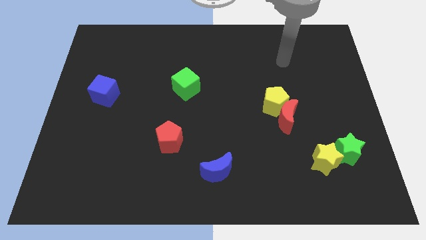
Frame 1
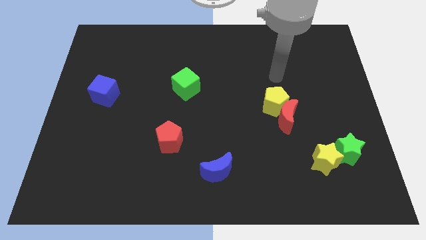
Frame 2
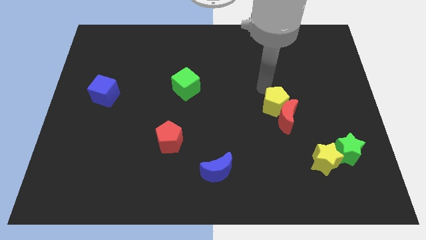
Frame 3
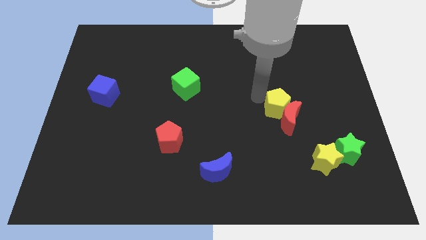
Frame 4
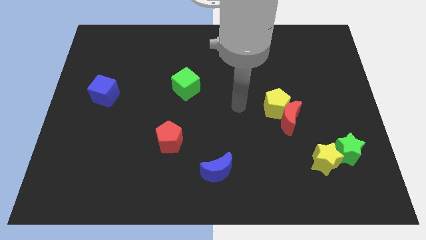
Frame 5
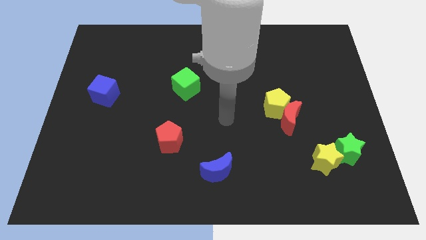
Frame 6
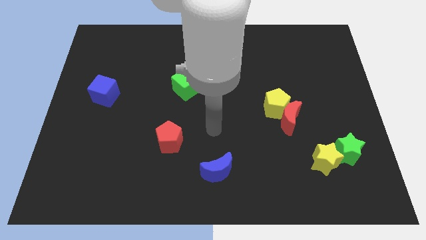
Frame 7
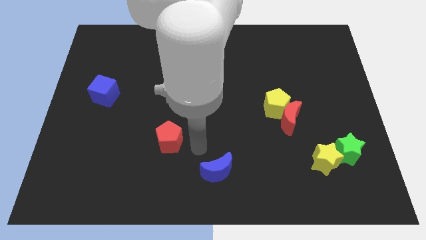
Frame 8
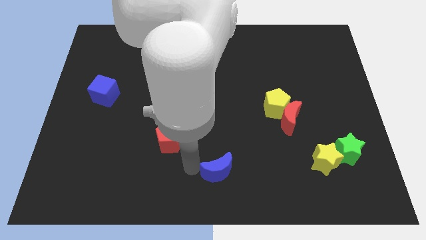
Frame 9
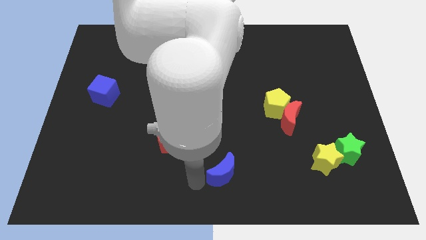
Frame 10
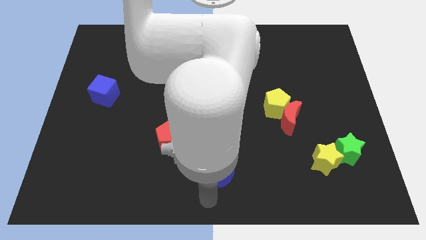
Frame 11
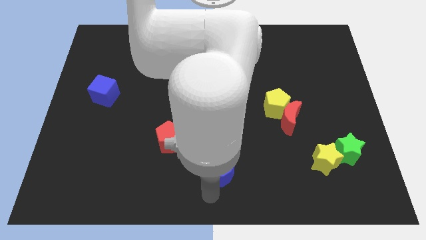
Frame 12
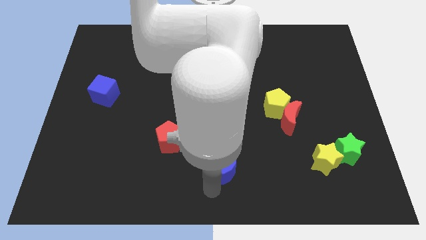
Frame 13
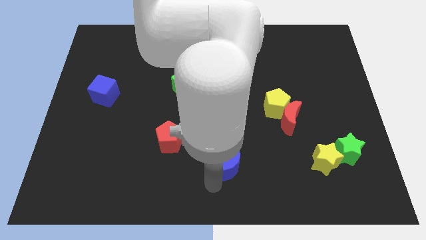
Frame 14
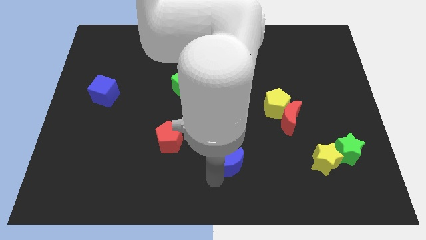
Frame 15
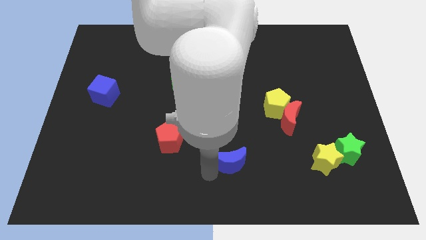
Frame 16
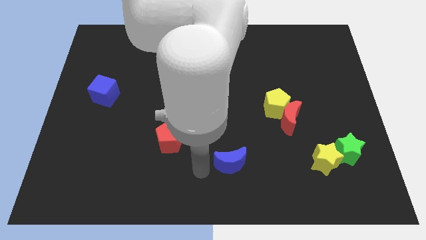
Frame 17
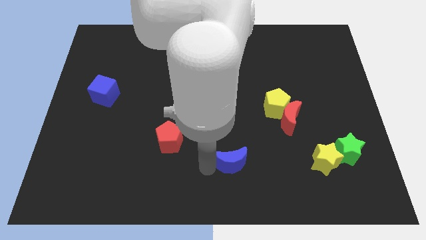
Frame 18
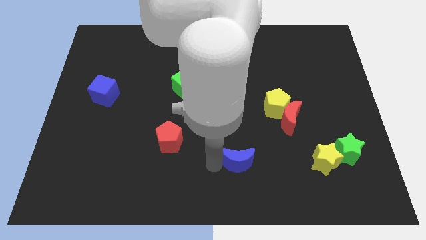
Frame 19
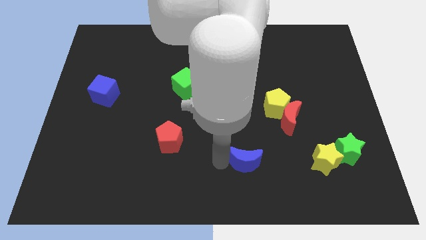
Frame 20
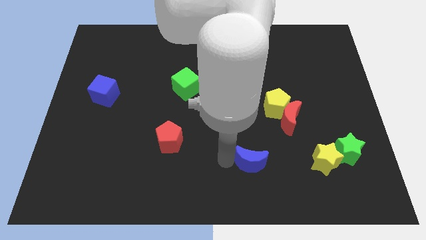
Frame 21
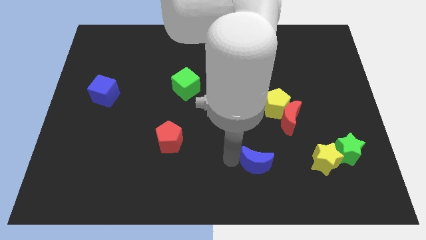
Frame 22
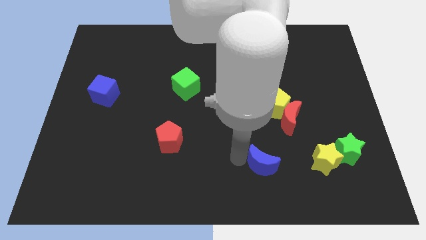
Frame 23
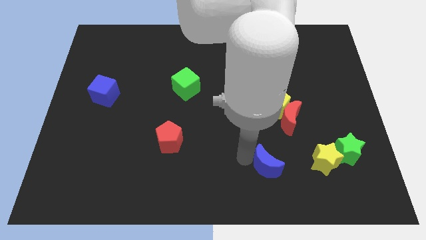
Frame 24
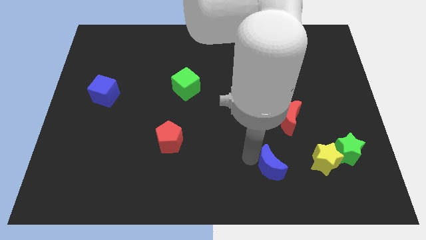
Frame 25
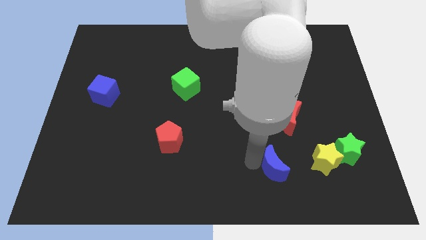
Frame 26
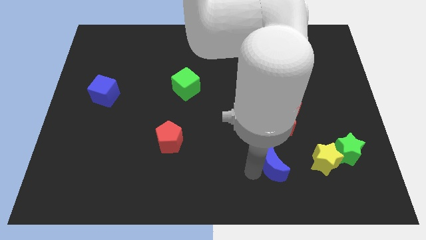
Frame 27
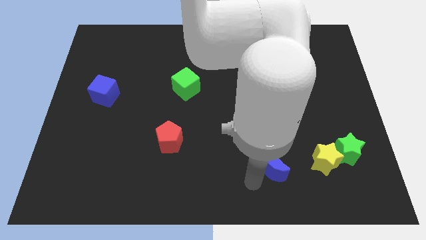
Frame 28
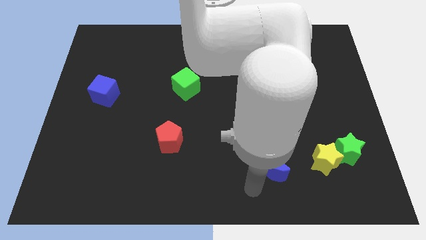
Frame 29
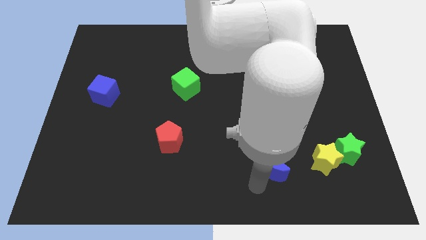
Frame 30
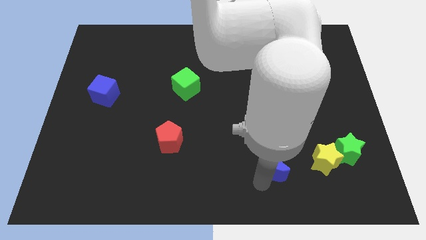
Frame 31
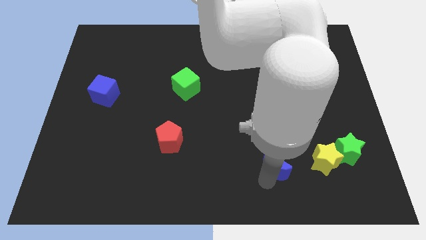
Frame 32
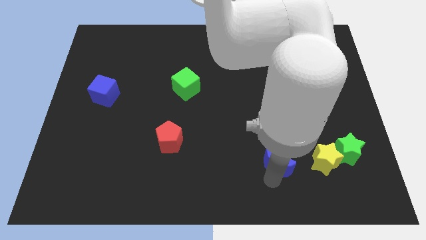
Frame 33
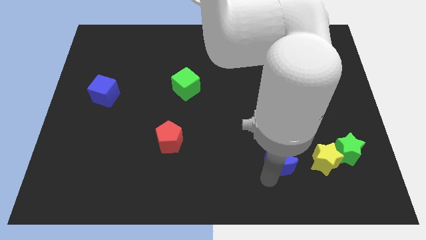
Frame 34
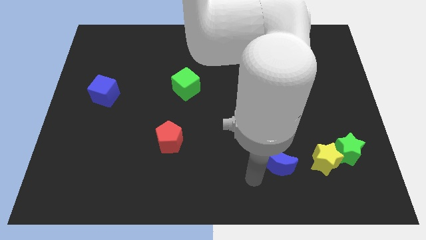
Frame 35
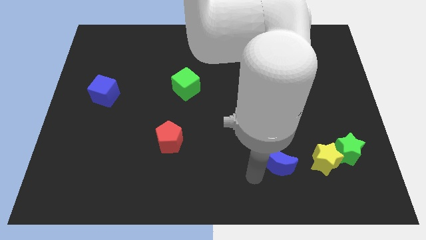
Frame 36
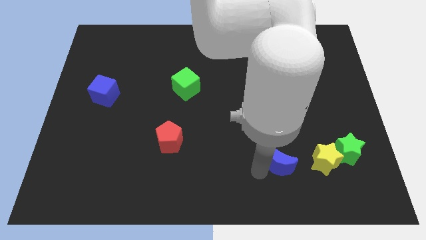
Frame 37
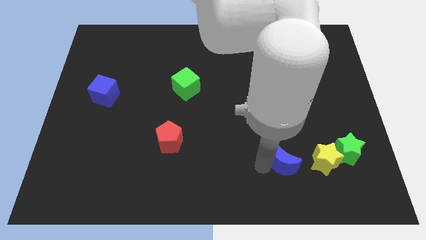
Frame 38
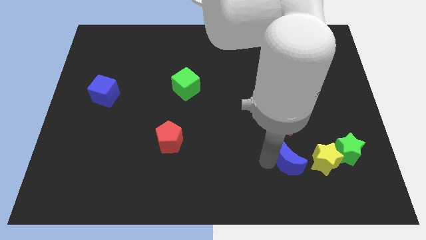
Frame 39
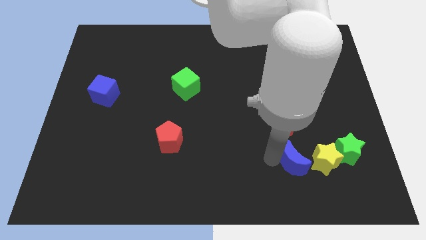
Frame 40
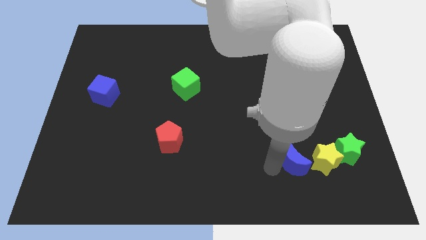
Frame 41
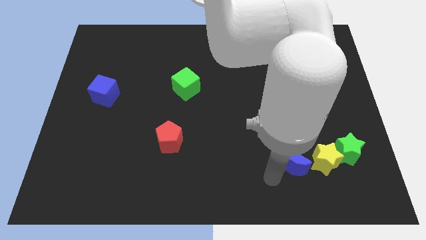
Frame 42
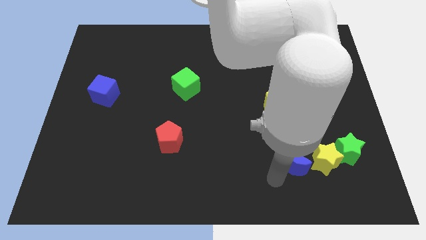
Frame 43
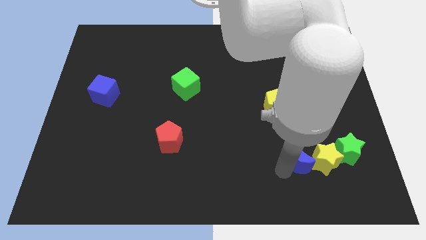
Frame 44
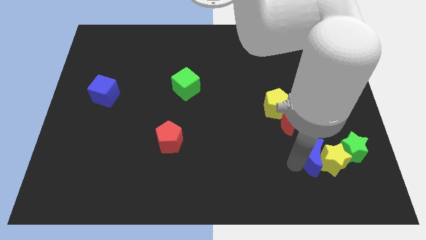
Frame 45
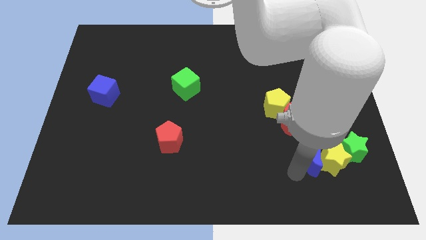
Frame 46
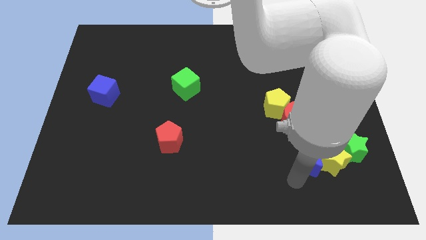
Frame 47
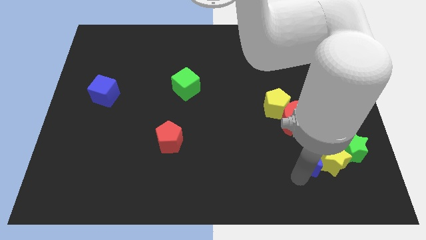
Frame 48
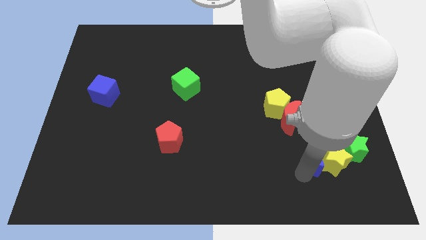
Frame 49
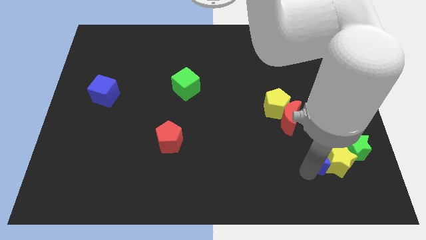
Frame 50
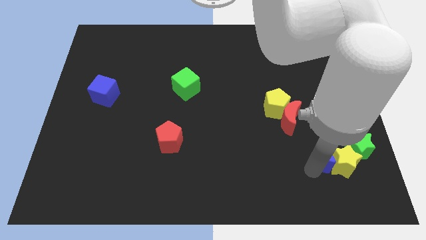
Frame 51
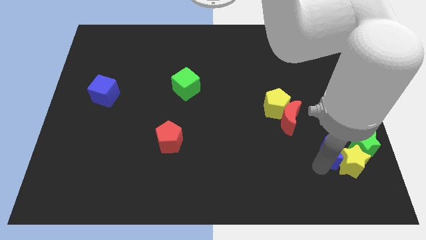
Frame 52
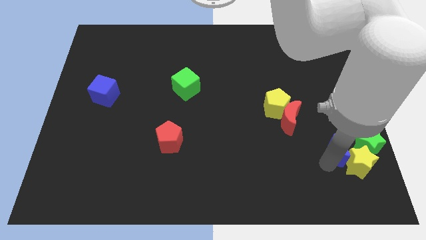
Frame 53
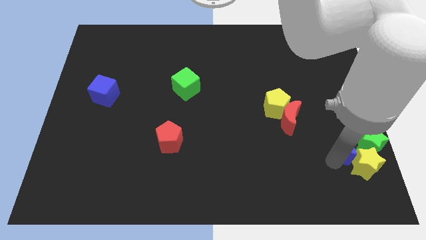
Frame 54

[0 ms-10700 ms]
put the blue moon next to the green star

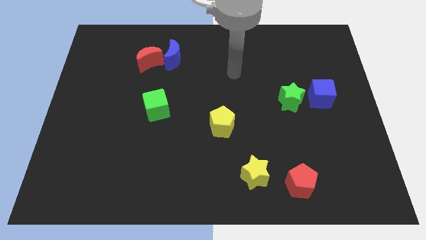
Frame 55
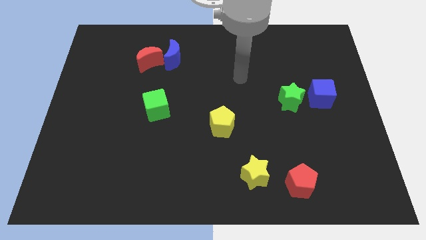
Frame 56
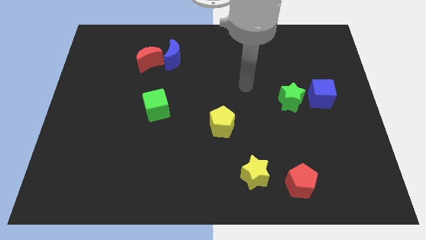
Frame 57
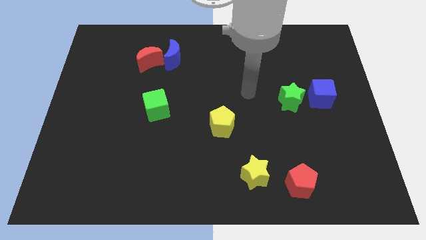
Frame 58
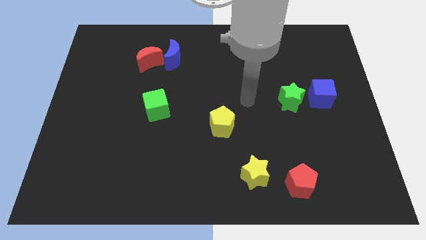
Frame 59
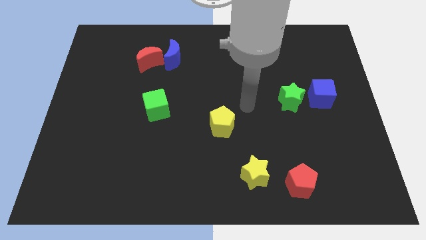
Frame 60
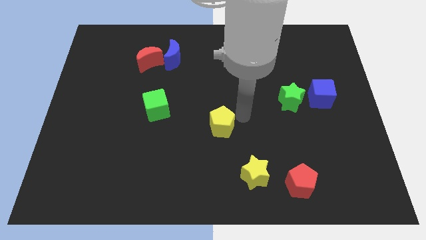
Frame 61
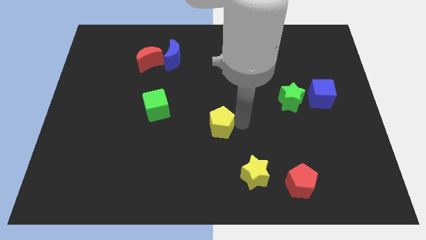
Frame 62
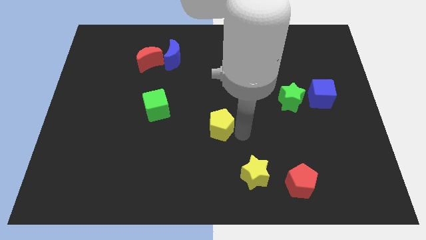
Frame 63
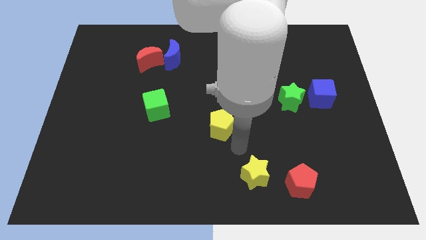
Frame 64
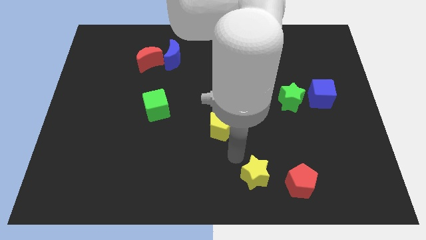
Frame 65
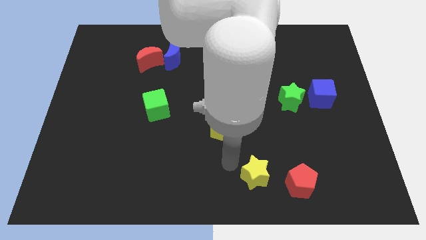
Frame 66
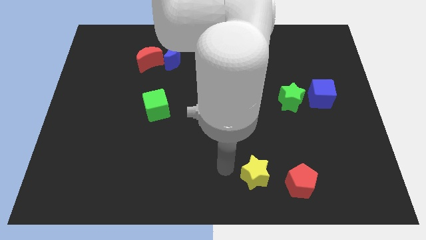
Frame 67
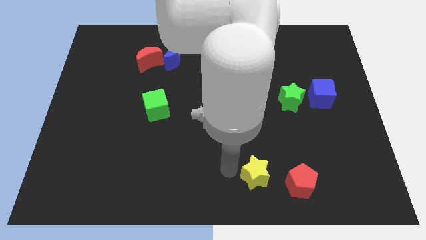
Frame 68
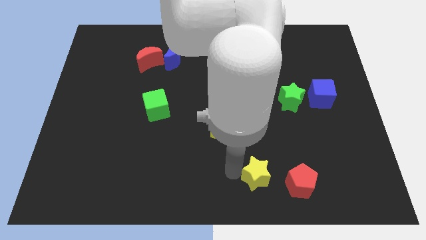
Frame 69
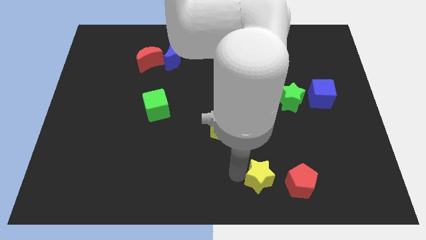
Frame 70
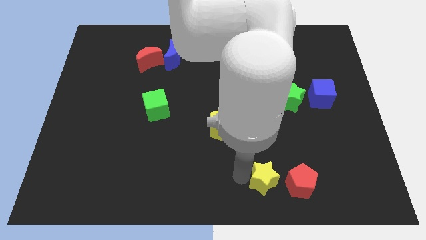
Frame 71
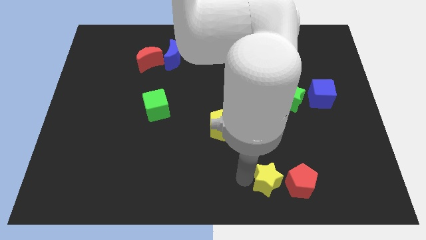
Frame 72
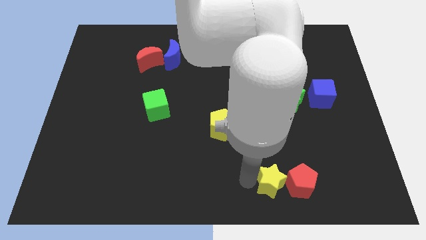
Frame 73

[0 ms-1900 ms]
move the yellow star to the red pentagon

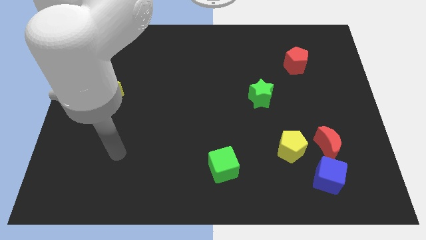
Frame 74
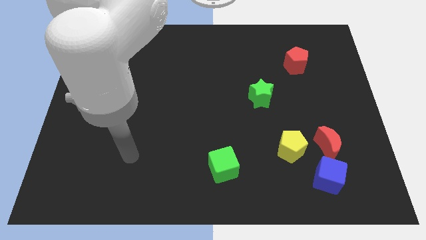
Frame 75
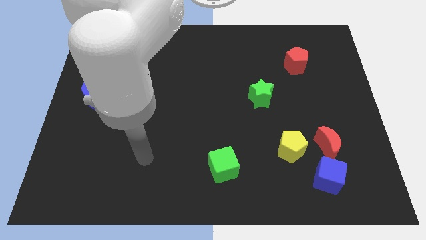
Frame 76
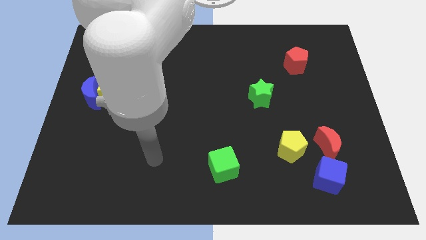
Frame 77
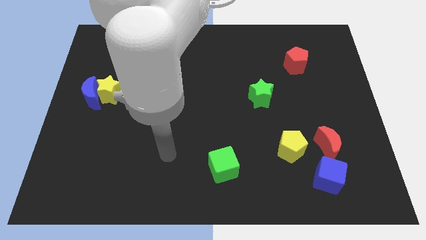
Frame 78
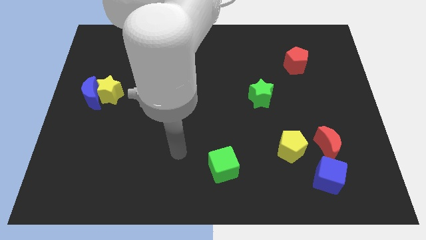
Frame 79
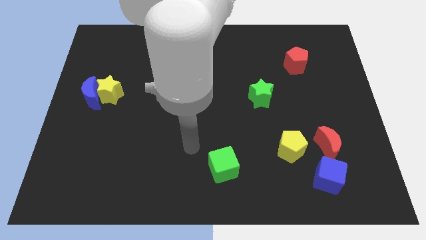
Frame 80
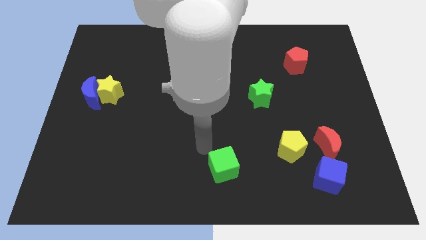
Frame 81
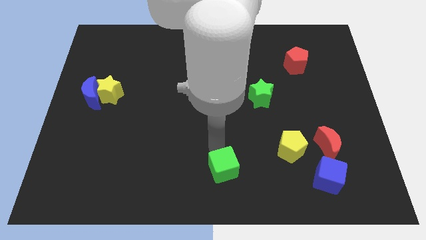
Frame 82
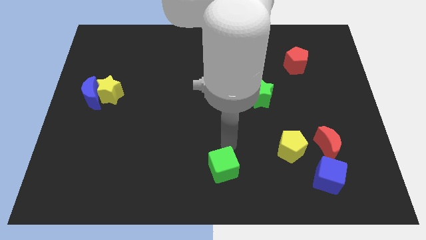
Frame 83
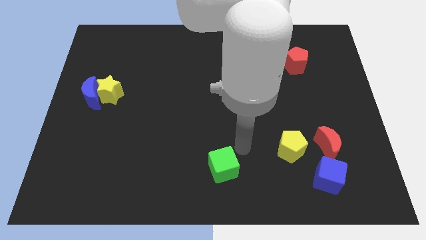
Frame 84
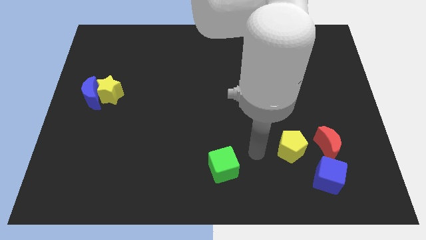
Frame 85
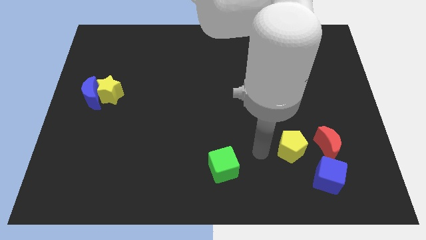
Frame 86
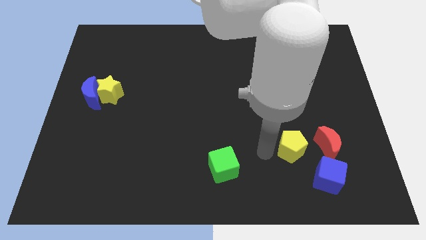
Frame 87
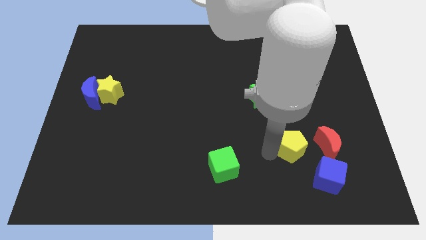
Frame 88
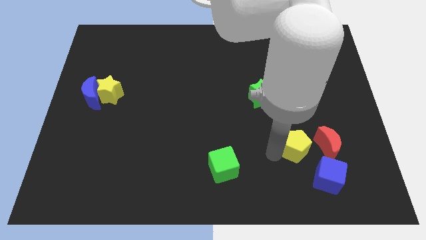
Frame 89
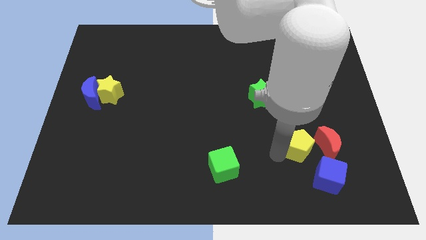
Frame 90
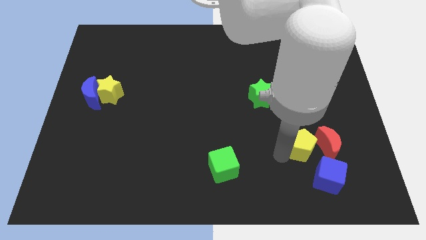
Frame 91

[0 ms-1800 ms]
push the yellow pentagon to the red moon
